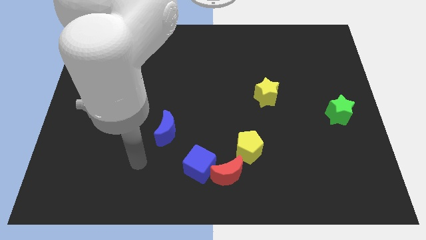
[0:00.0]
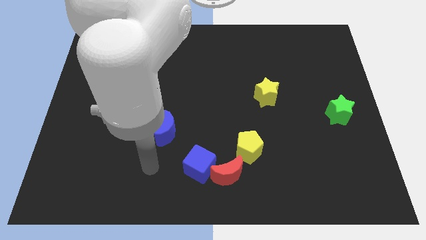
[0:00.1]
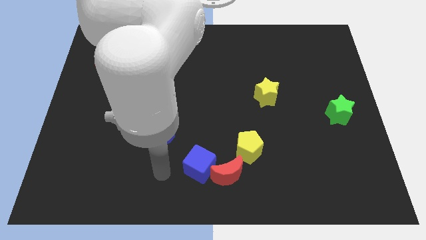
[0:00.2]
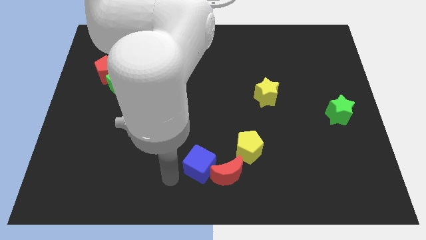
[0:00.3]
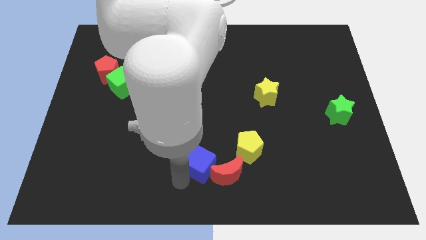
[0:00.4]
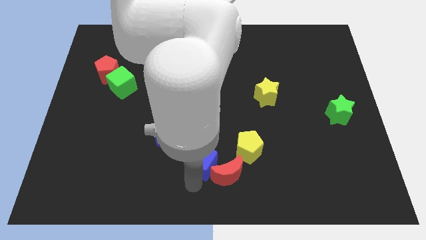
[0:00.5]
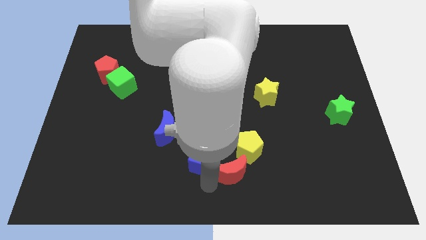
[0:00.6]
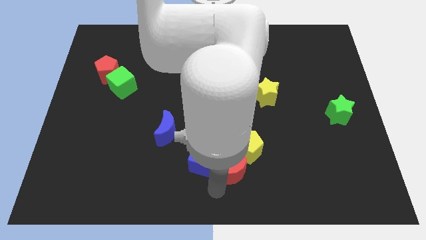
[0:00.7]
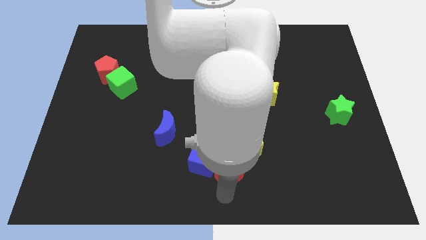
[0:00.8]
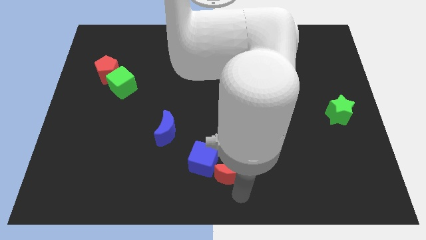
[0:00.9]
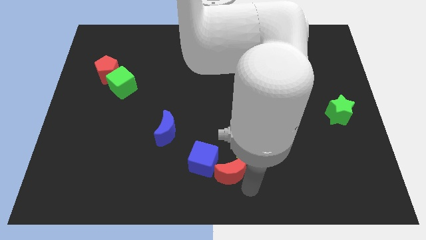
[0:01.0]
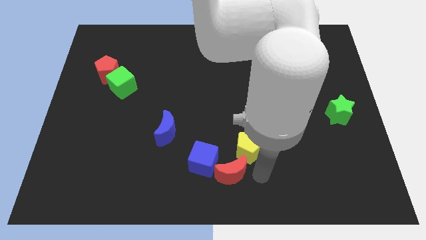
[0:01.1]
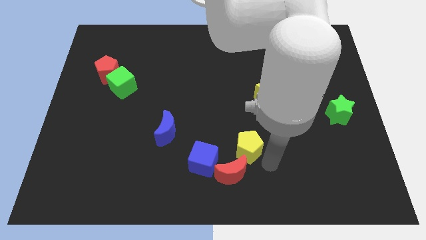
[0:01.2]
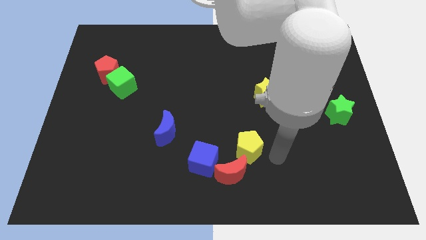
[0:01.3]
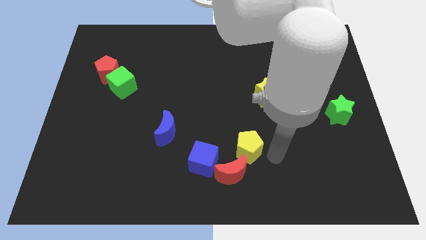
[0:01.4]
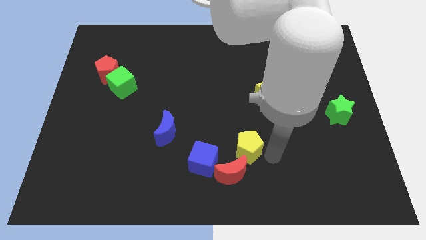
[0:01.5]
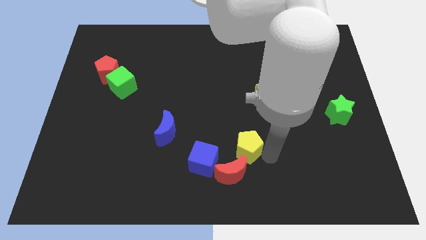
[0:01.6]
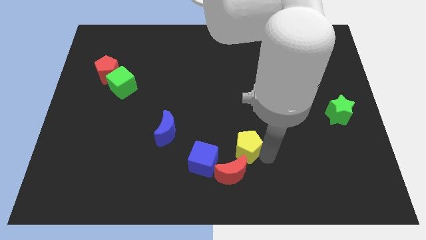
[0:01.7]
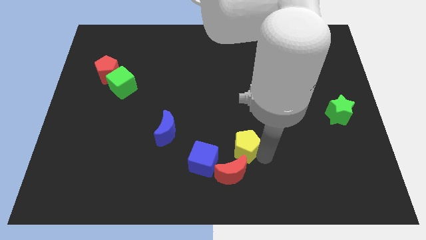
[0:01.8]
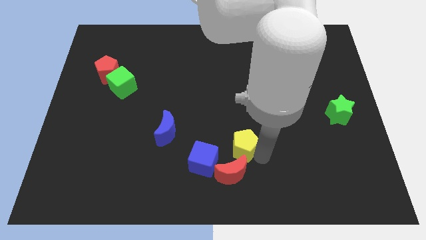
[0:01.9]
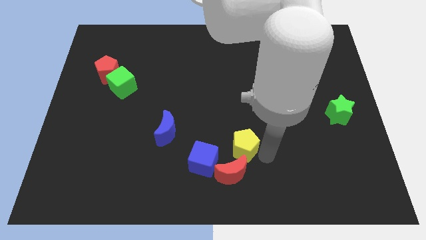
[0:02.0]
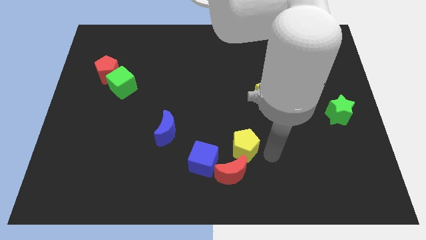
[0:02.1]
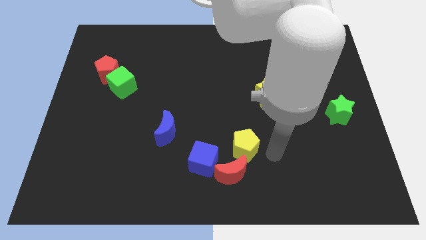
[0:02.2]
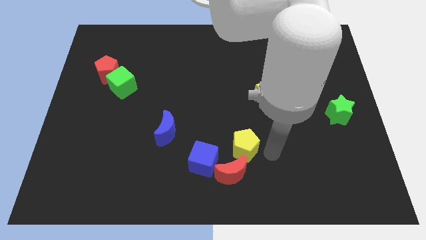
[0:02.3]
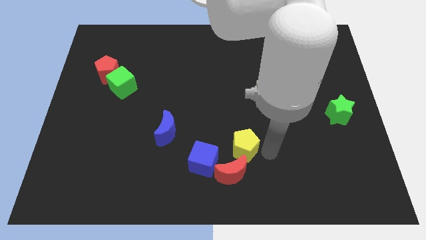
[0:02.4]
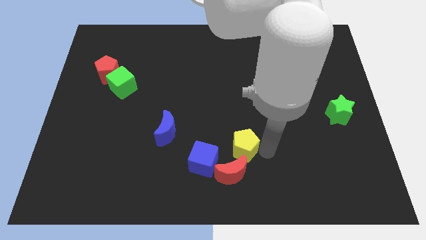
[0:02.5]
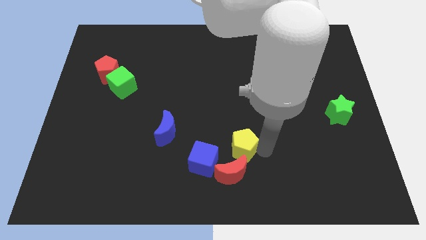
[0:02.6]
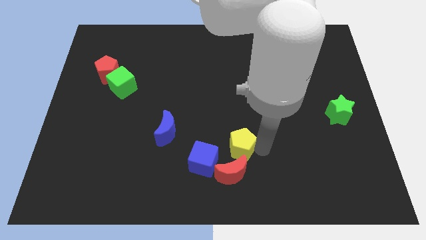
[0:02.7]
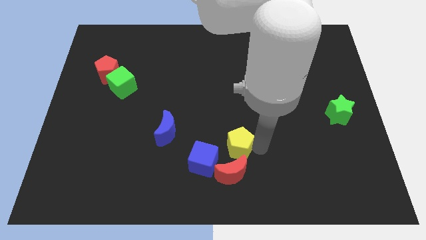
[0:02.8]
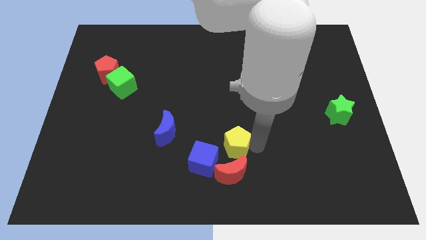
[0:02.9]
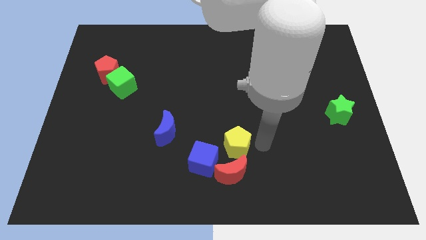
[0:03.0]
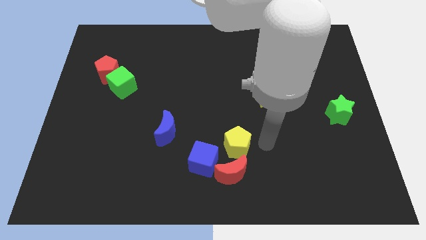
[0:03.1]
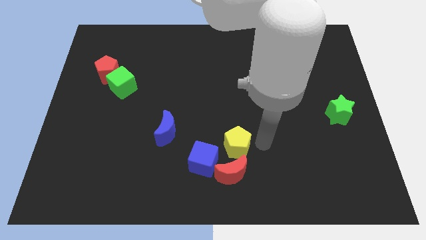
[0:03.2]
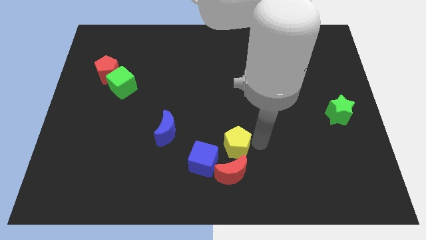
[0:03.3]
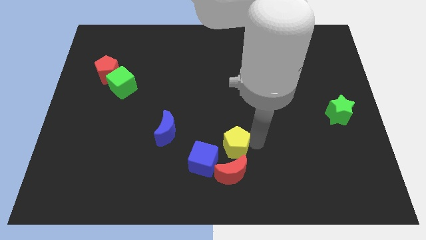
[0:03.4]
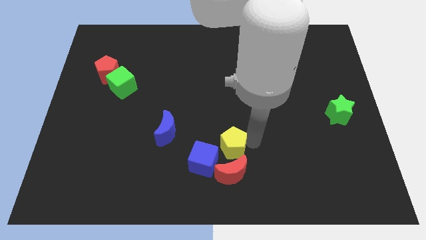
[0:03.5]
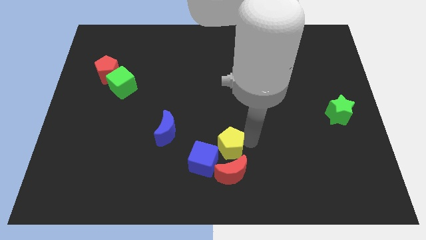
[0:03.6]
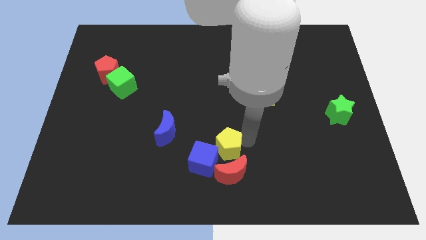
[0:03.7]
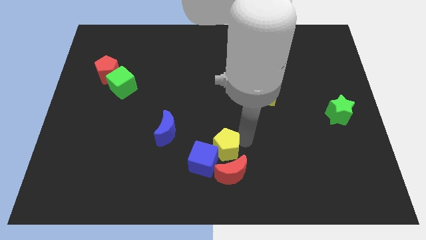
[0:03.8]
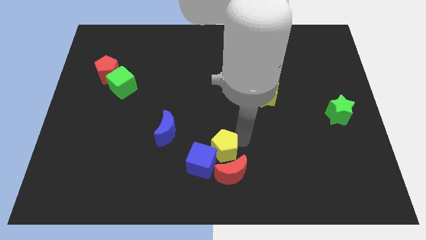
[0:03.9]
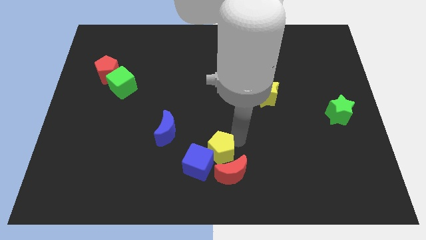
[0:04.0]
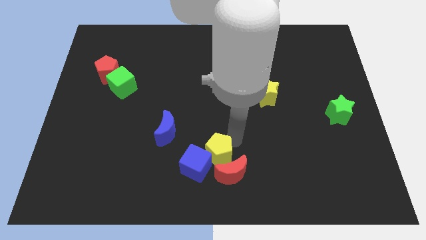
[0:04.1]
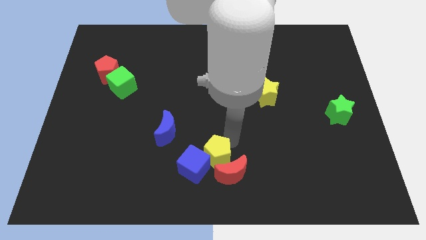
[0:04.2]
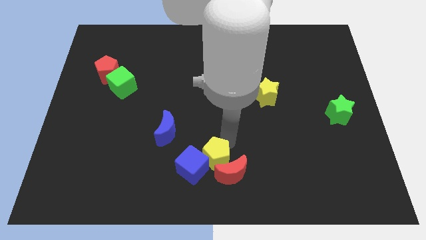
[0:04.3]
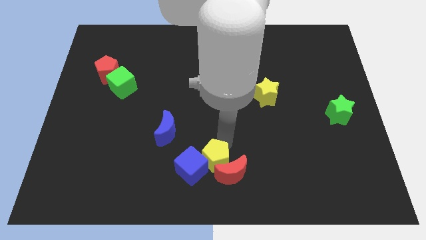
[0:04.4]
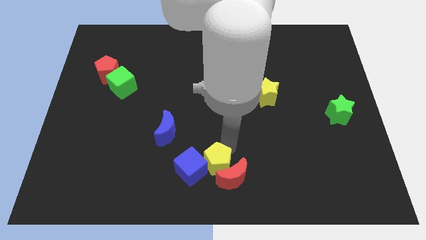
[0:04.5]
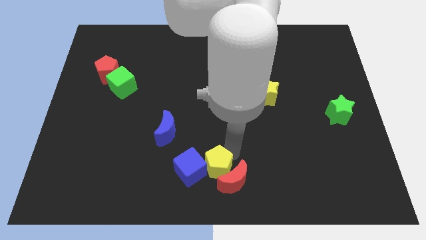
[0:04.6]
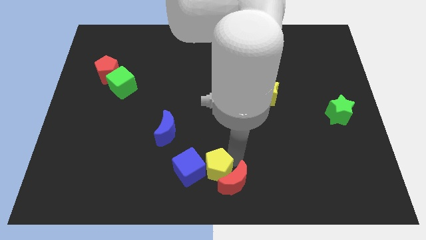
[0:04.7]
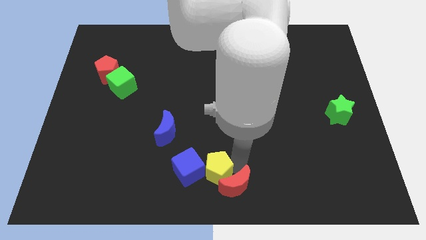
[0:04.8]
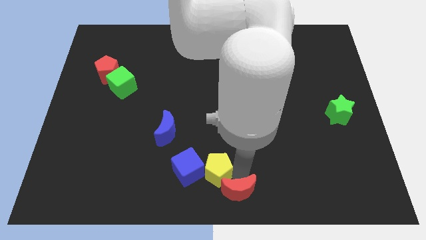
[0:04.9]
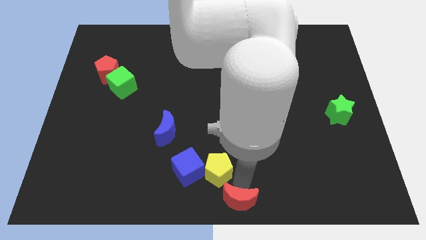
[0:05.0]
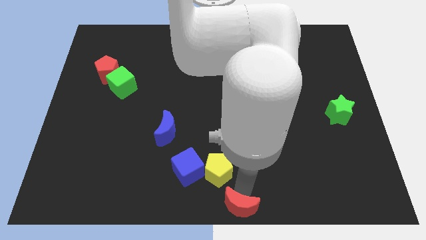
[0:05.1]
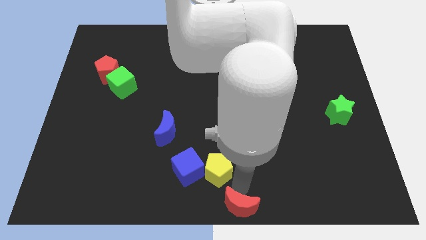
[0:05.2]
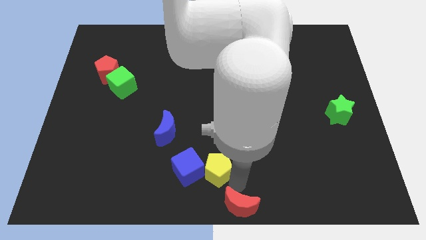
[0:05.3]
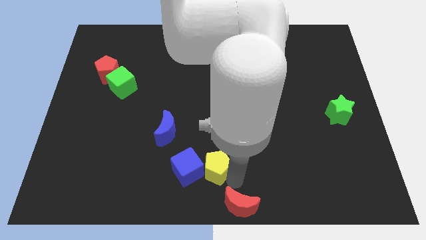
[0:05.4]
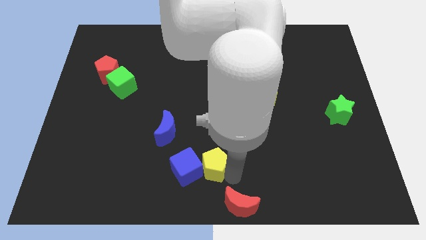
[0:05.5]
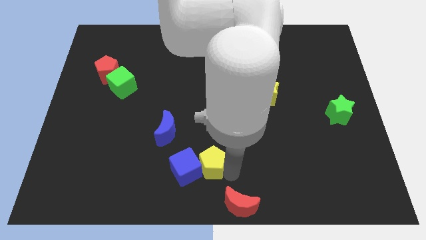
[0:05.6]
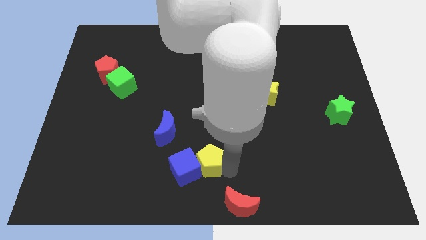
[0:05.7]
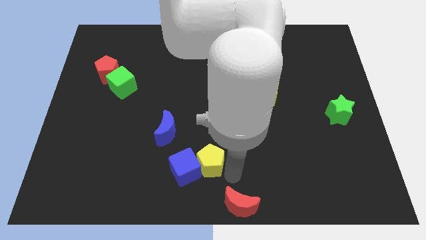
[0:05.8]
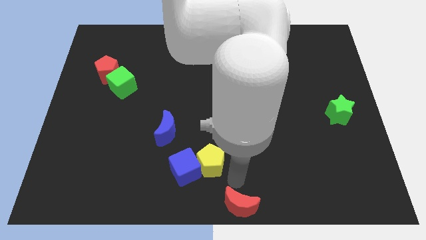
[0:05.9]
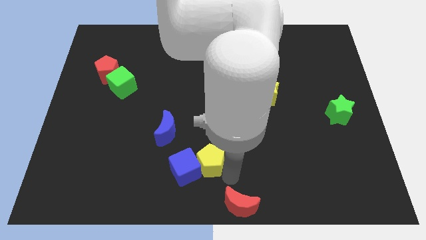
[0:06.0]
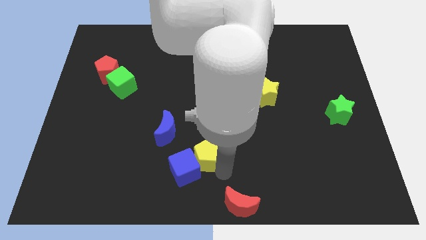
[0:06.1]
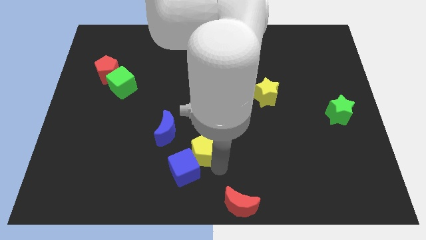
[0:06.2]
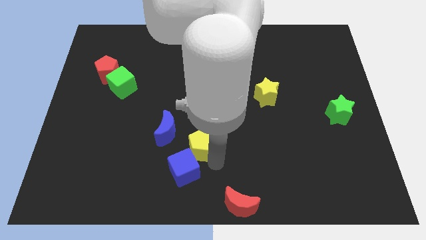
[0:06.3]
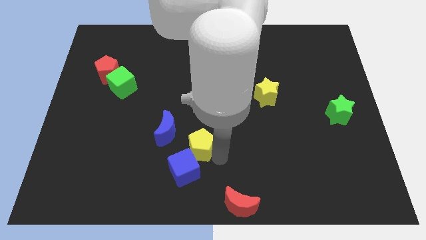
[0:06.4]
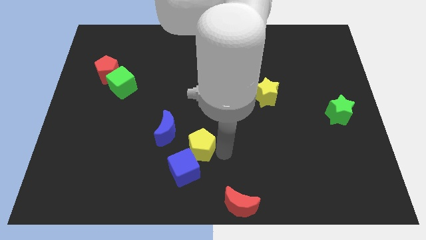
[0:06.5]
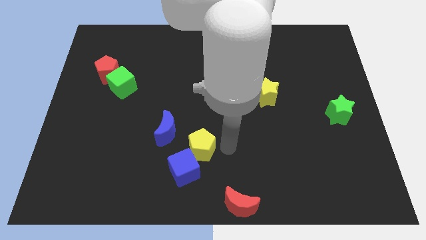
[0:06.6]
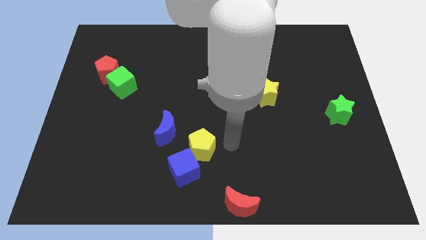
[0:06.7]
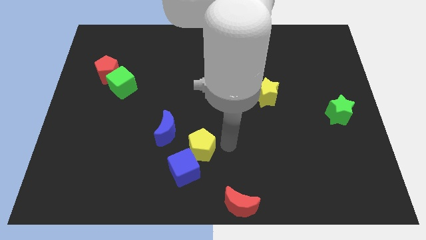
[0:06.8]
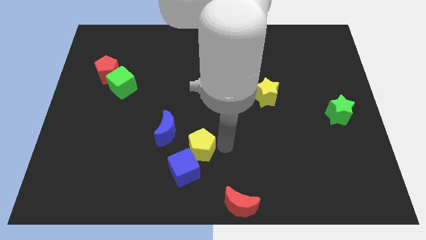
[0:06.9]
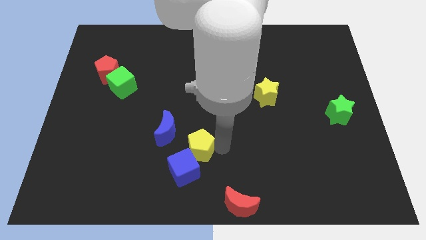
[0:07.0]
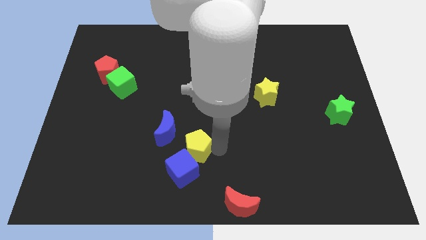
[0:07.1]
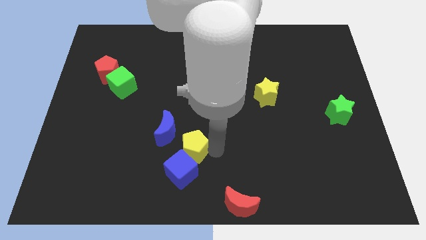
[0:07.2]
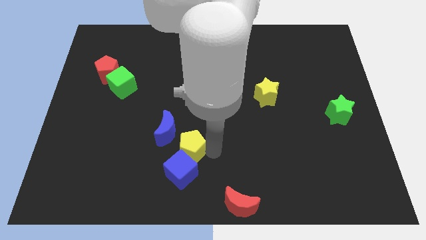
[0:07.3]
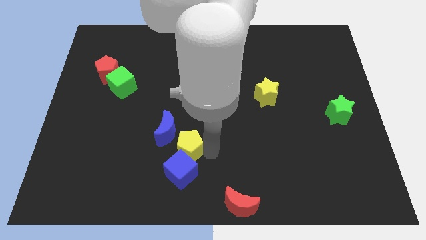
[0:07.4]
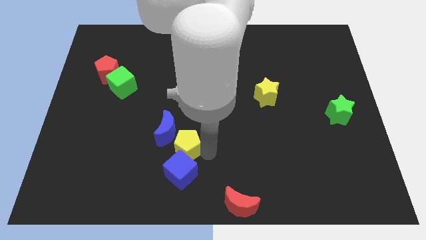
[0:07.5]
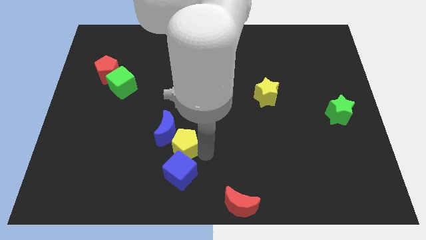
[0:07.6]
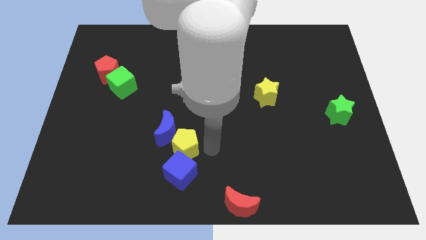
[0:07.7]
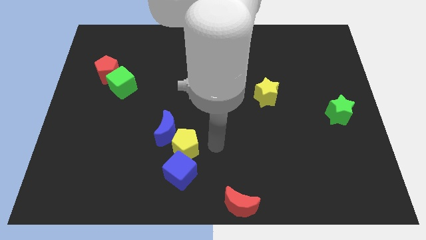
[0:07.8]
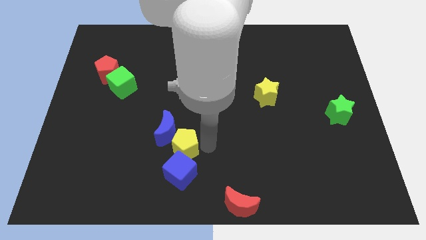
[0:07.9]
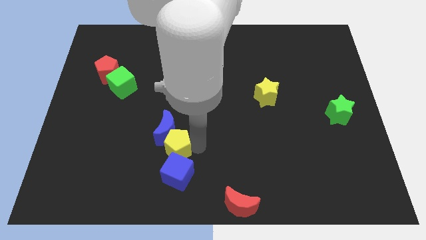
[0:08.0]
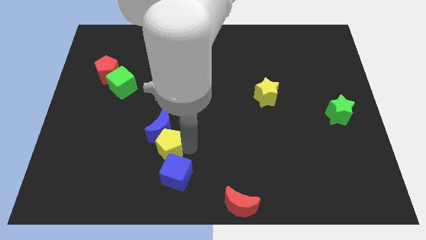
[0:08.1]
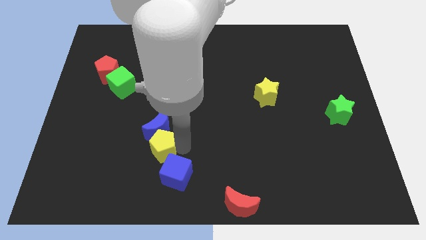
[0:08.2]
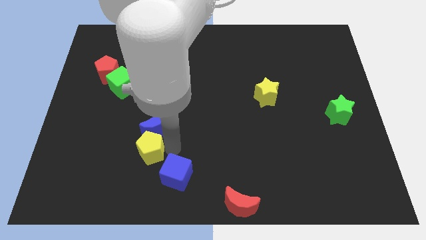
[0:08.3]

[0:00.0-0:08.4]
move the yellow pentagon to the left
